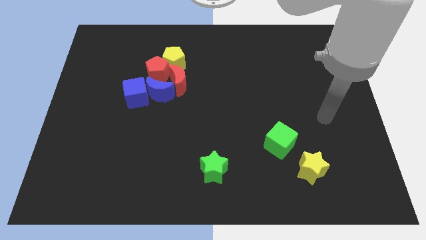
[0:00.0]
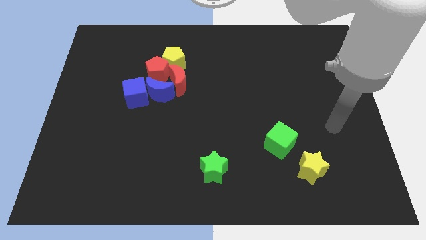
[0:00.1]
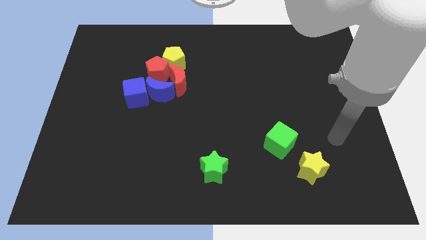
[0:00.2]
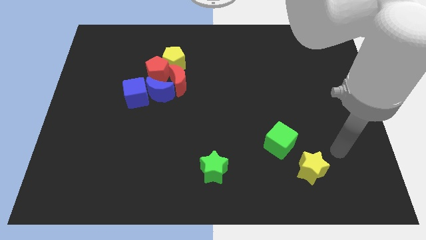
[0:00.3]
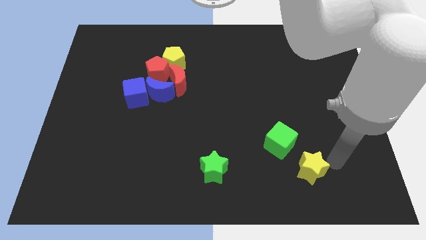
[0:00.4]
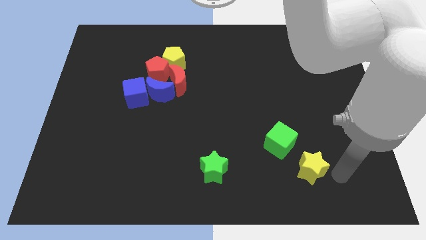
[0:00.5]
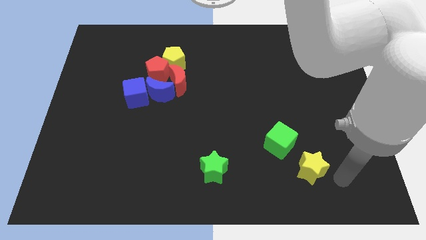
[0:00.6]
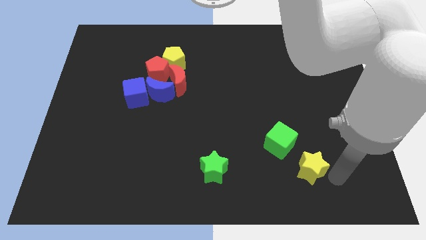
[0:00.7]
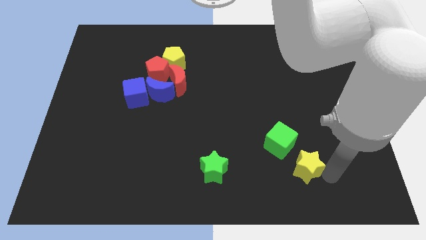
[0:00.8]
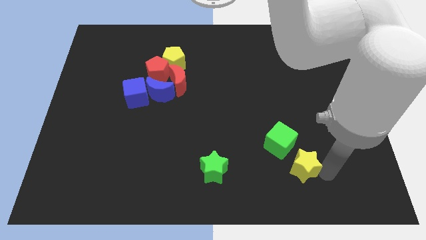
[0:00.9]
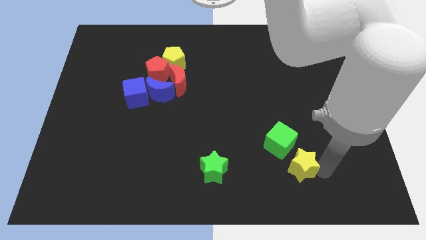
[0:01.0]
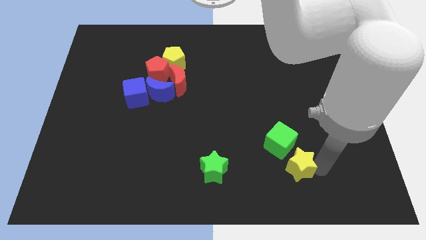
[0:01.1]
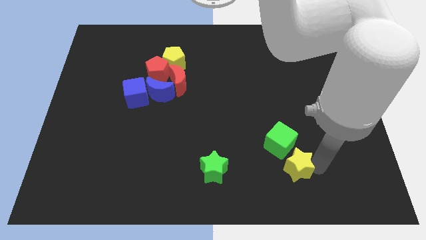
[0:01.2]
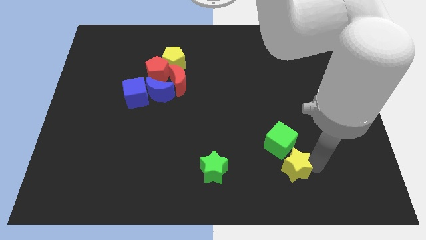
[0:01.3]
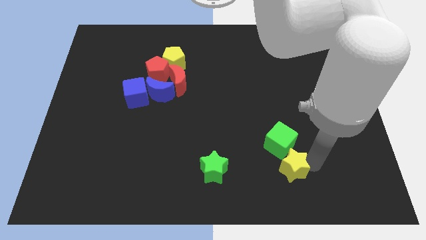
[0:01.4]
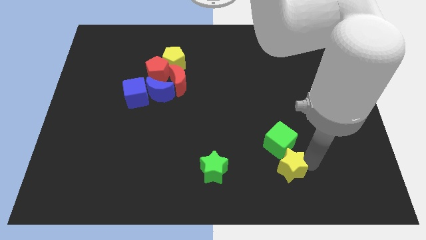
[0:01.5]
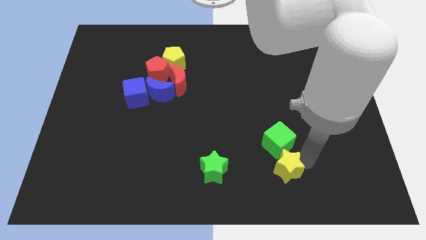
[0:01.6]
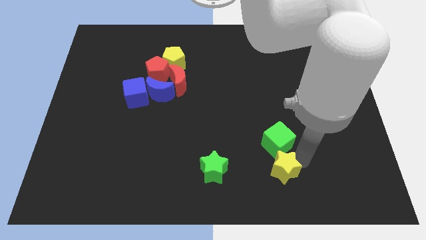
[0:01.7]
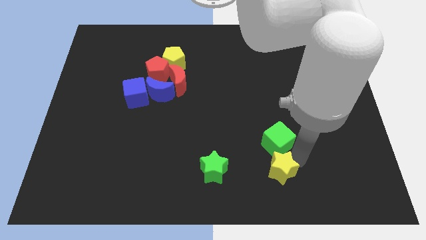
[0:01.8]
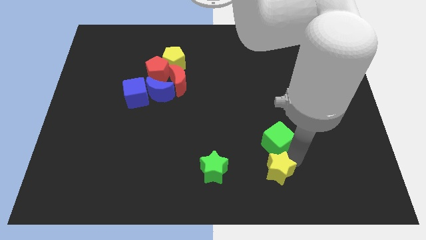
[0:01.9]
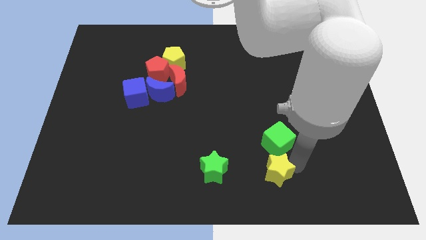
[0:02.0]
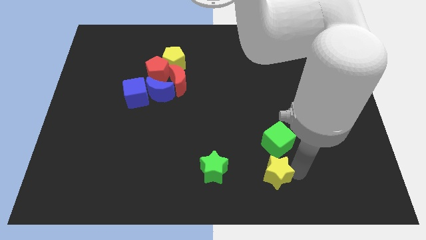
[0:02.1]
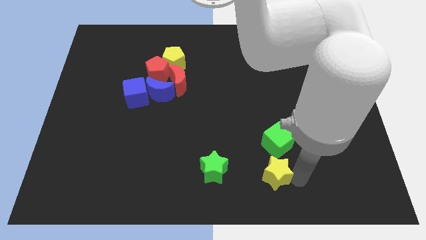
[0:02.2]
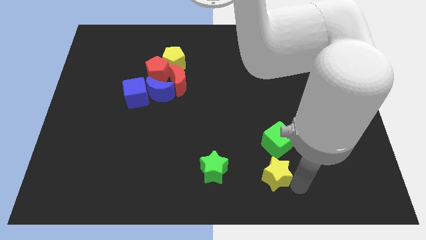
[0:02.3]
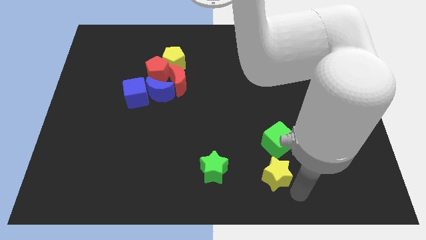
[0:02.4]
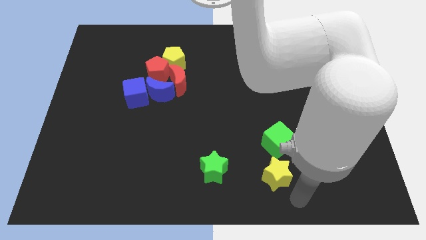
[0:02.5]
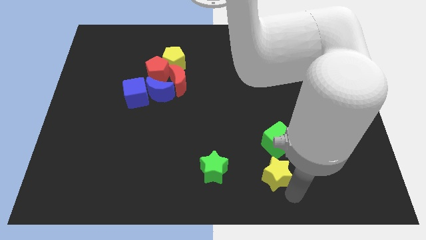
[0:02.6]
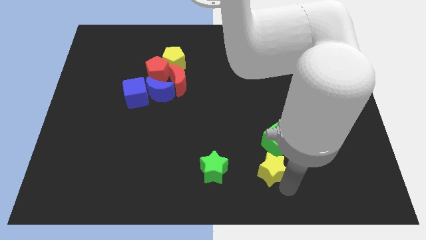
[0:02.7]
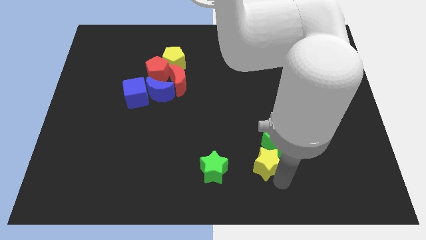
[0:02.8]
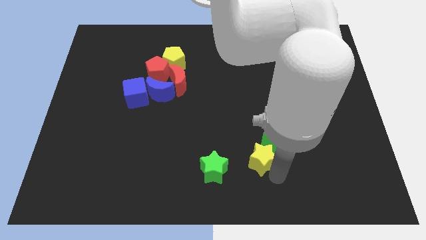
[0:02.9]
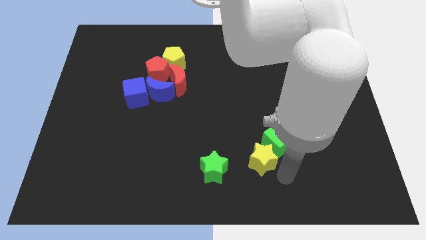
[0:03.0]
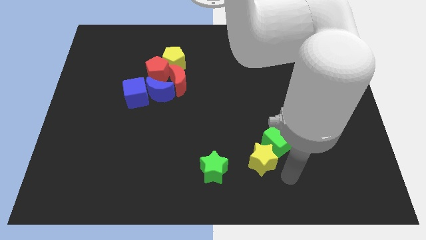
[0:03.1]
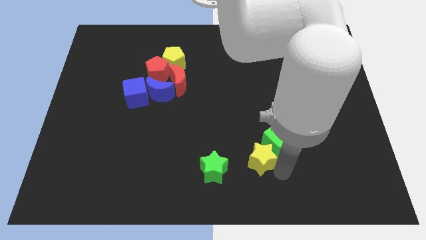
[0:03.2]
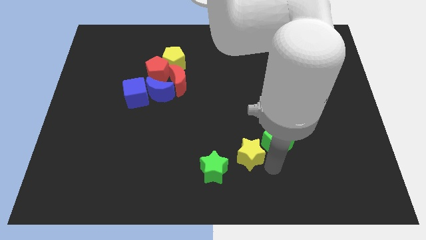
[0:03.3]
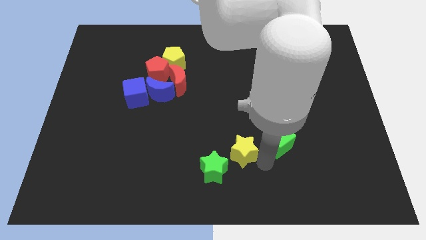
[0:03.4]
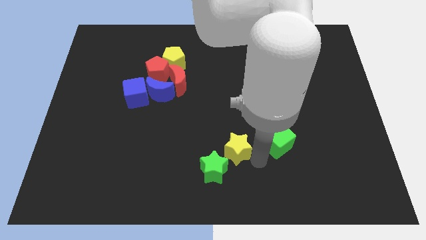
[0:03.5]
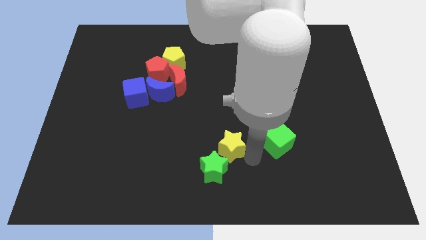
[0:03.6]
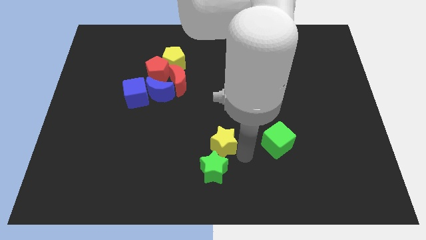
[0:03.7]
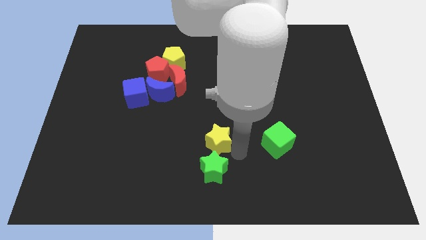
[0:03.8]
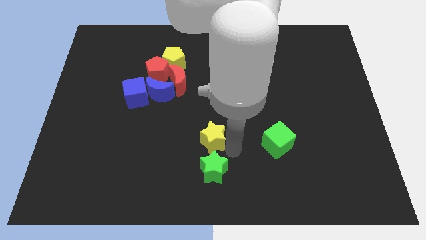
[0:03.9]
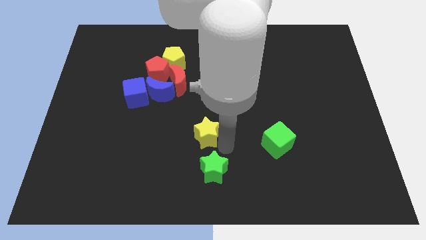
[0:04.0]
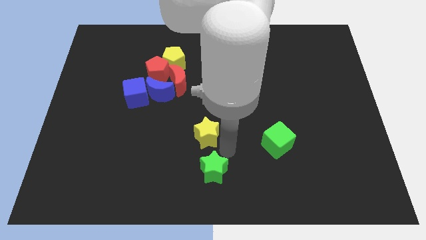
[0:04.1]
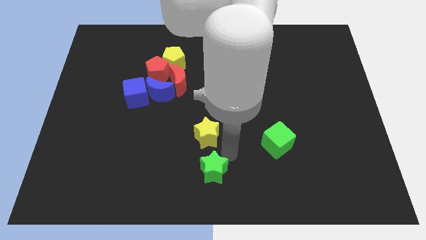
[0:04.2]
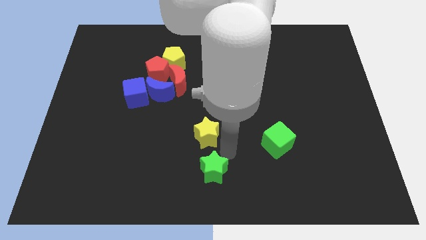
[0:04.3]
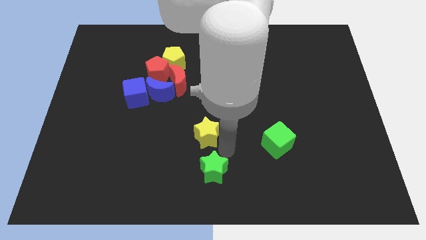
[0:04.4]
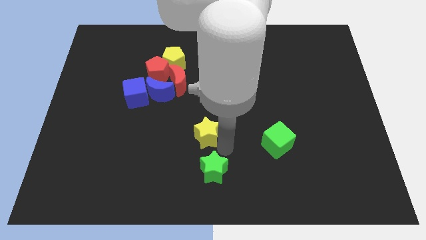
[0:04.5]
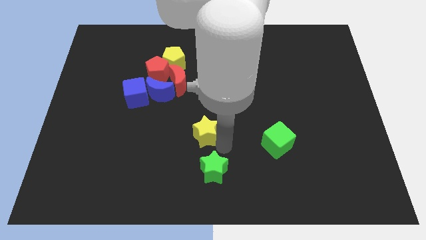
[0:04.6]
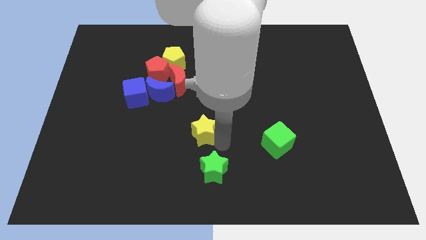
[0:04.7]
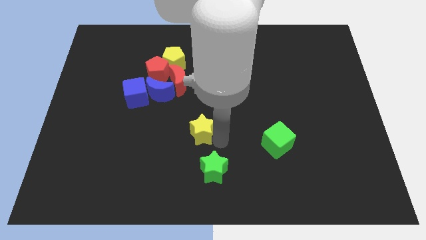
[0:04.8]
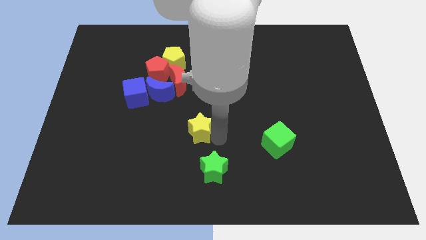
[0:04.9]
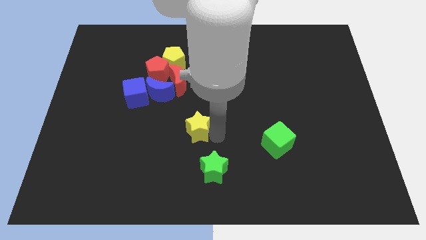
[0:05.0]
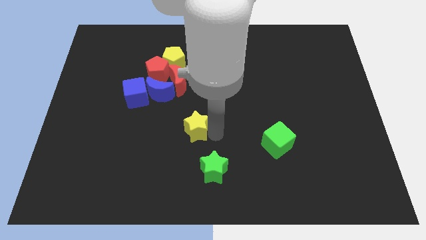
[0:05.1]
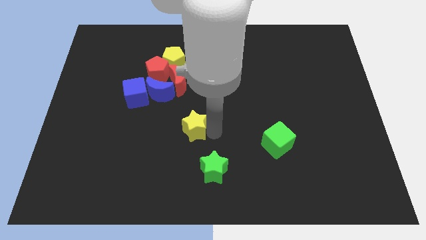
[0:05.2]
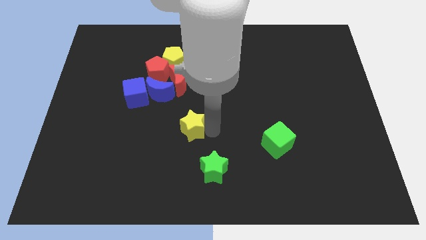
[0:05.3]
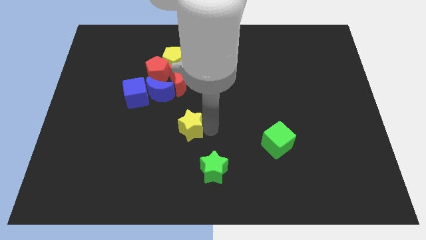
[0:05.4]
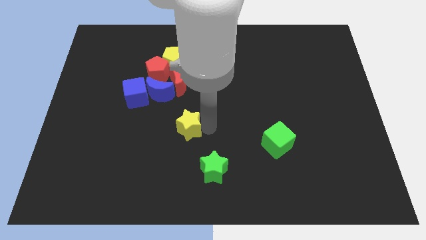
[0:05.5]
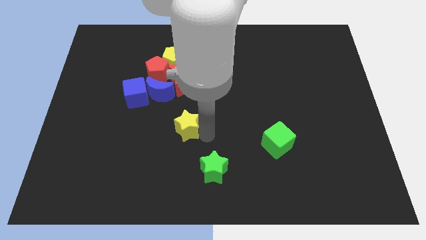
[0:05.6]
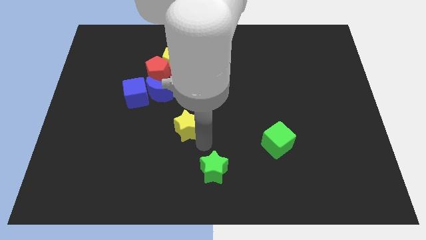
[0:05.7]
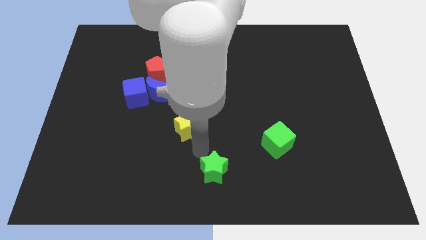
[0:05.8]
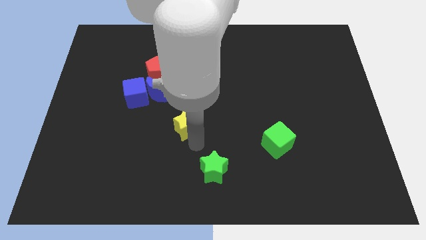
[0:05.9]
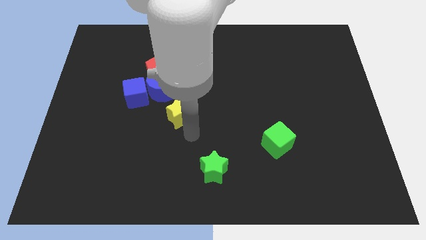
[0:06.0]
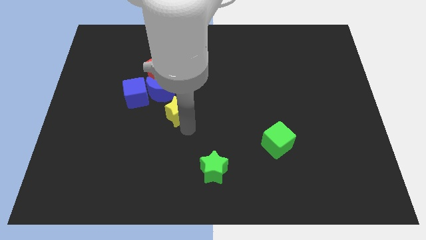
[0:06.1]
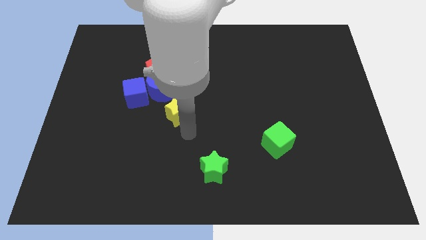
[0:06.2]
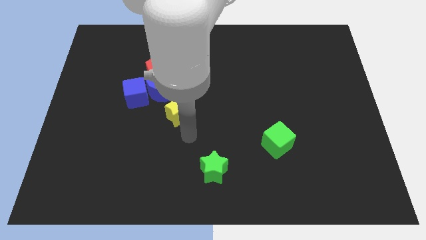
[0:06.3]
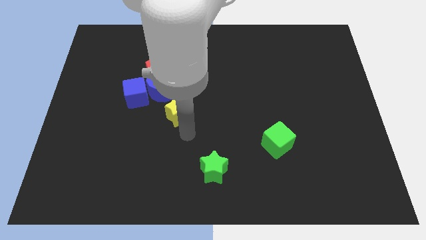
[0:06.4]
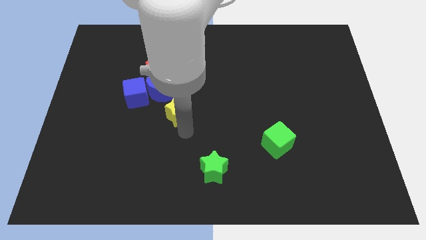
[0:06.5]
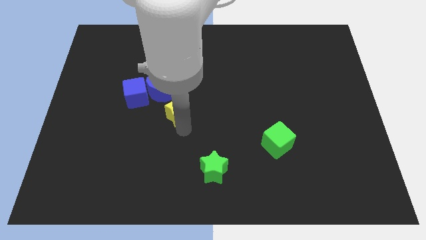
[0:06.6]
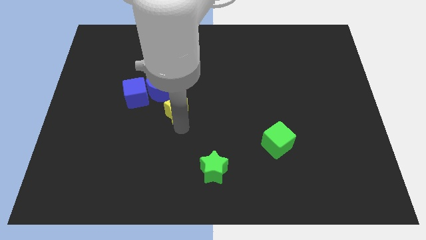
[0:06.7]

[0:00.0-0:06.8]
slide the yellow star to the bottom side of the yellow pentagon
